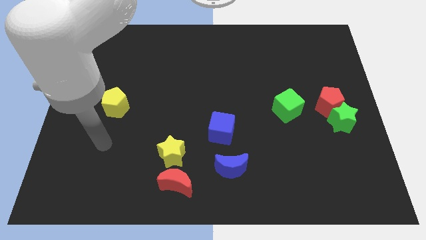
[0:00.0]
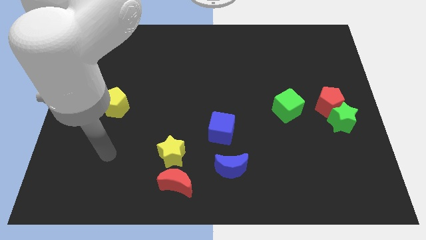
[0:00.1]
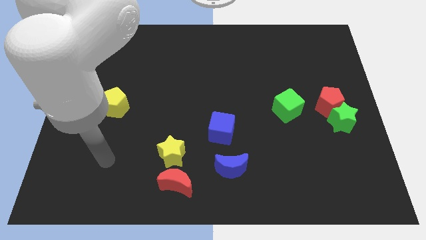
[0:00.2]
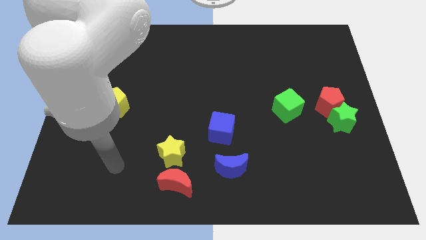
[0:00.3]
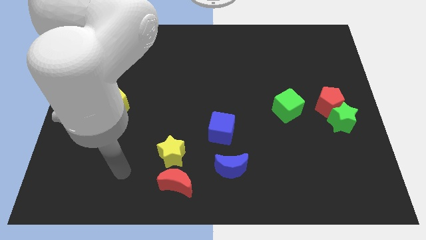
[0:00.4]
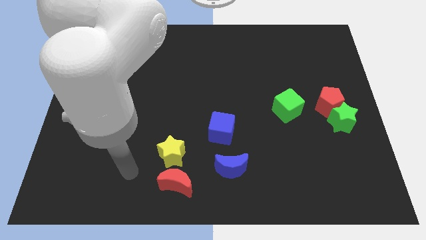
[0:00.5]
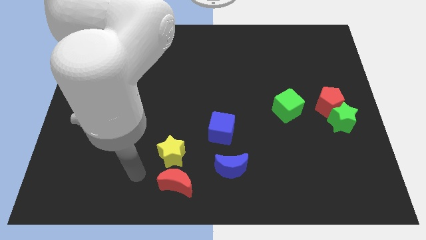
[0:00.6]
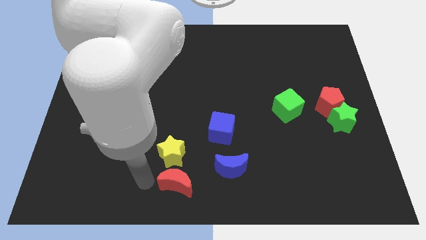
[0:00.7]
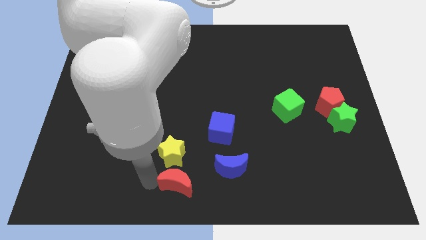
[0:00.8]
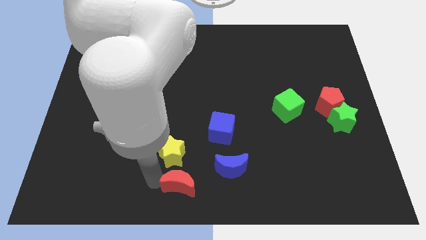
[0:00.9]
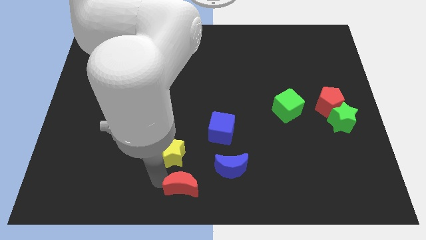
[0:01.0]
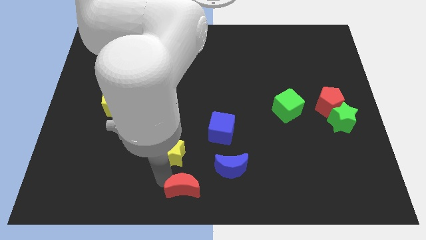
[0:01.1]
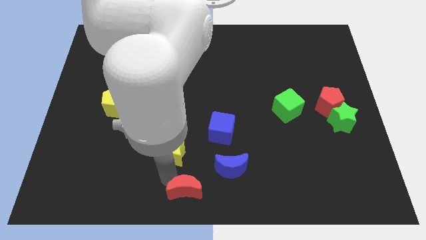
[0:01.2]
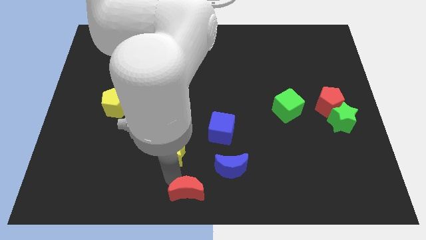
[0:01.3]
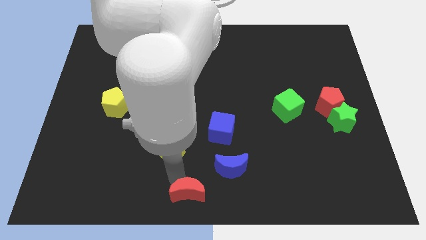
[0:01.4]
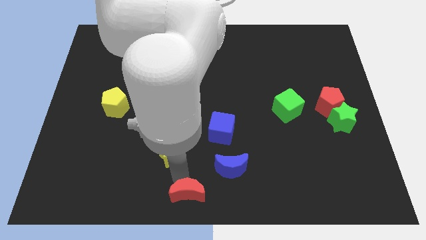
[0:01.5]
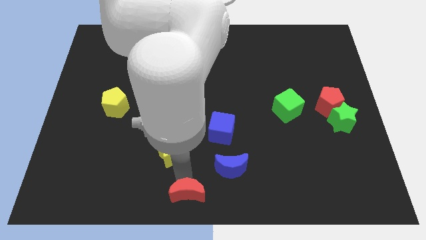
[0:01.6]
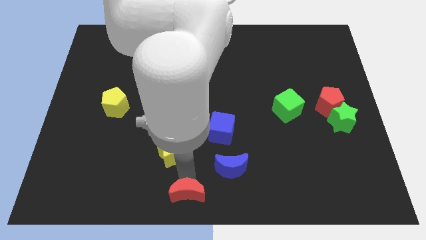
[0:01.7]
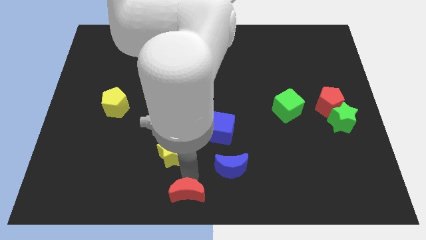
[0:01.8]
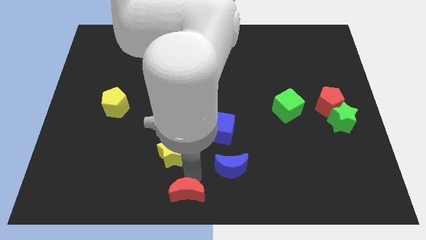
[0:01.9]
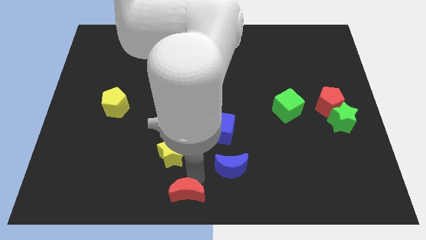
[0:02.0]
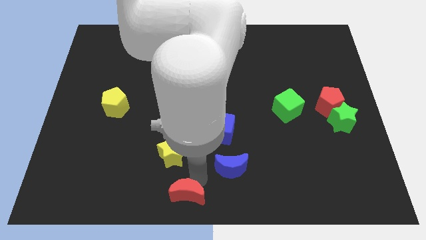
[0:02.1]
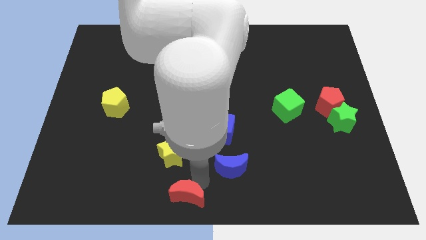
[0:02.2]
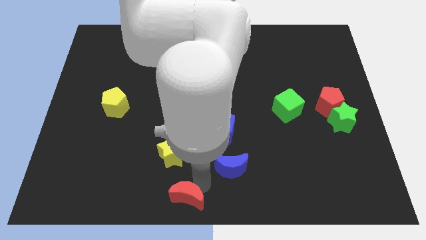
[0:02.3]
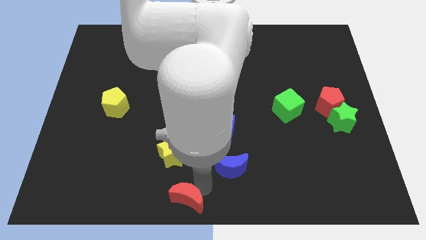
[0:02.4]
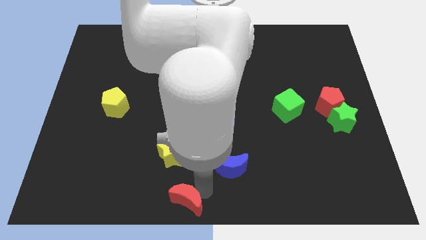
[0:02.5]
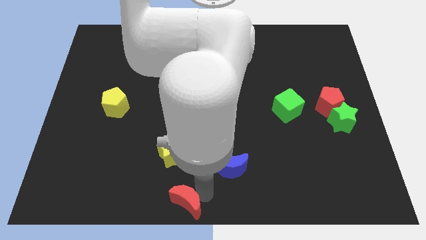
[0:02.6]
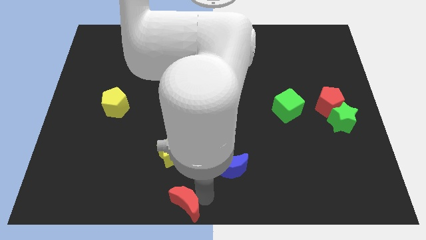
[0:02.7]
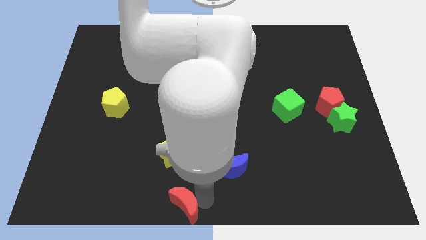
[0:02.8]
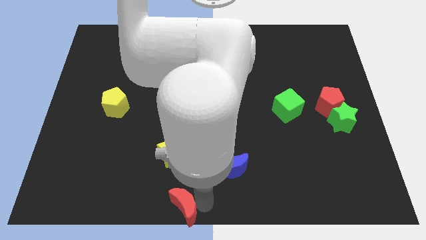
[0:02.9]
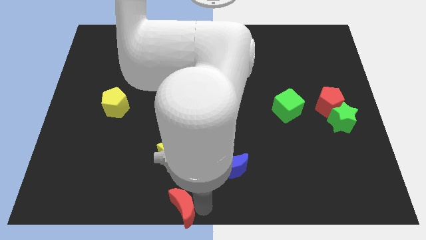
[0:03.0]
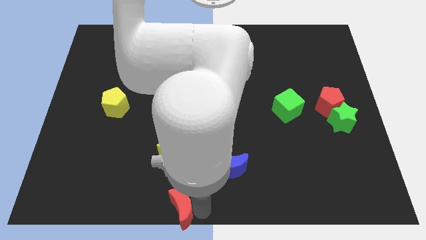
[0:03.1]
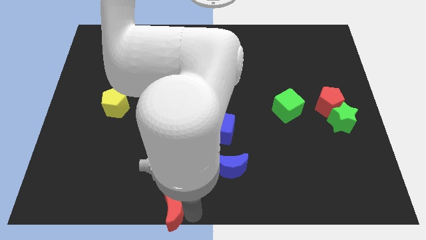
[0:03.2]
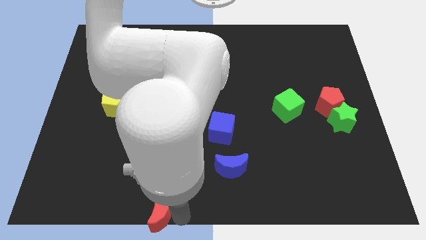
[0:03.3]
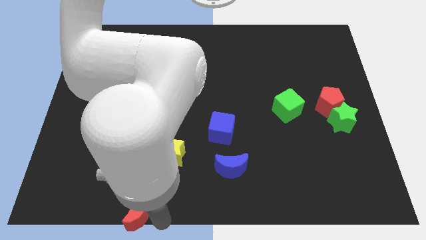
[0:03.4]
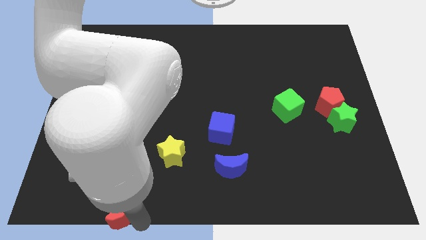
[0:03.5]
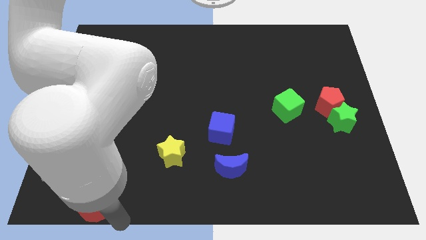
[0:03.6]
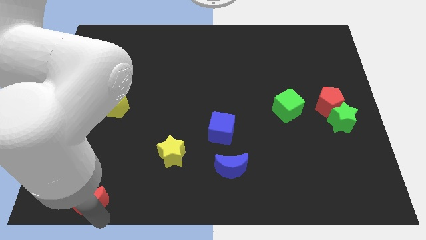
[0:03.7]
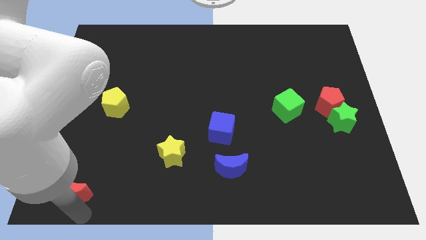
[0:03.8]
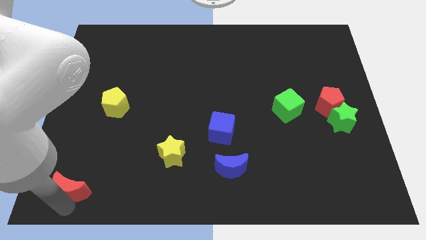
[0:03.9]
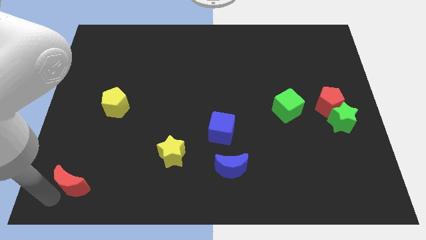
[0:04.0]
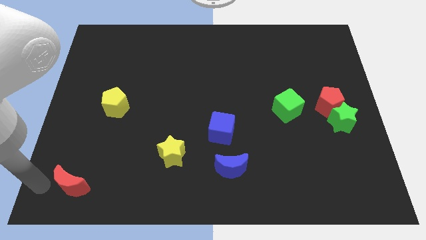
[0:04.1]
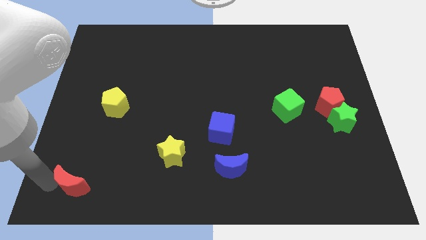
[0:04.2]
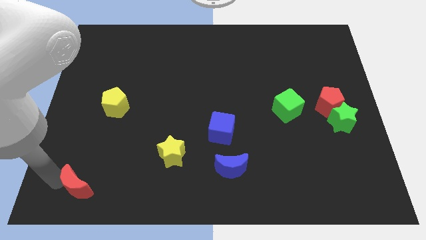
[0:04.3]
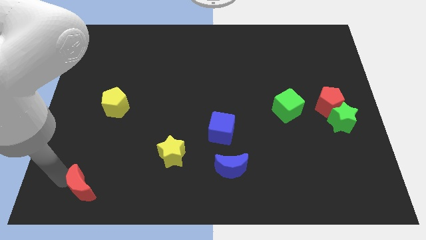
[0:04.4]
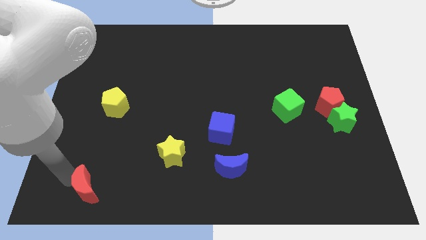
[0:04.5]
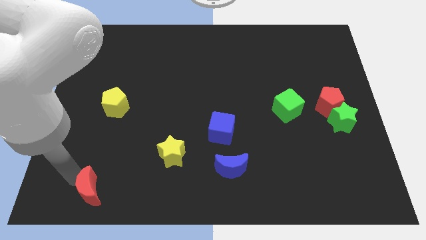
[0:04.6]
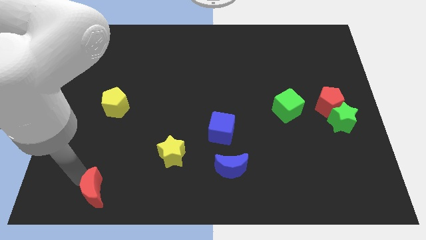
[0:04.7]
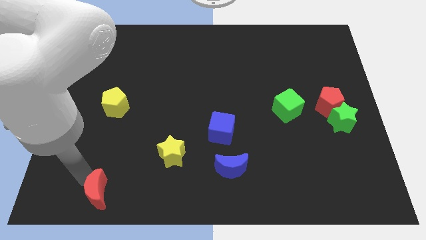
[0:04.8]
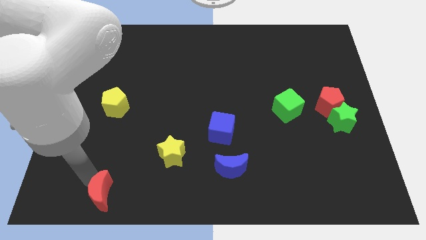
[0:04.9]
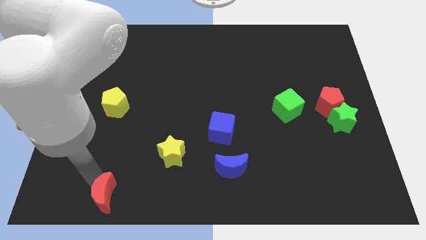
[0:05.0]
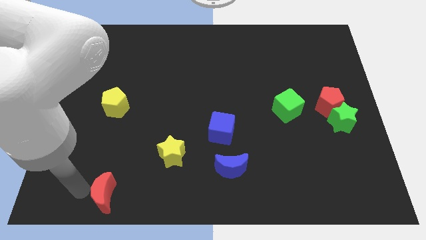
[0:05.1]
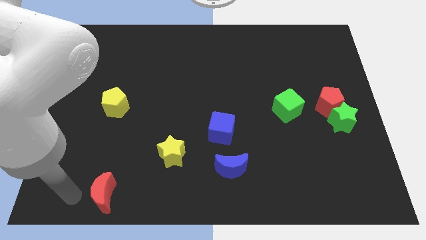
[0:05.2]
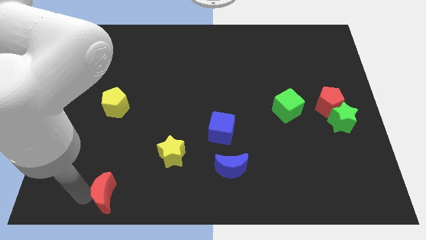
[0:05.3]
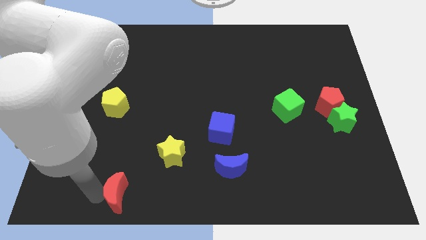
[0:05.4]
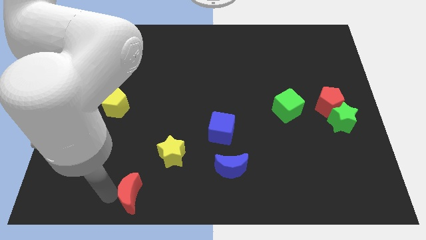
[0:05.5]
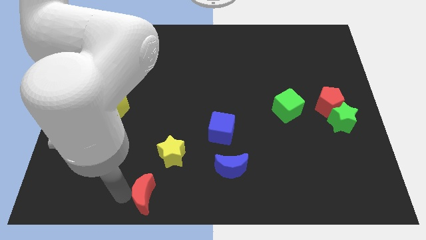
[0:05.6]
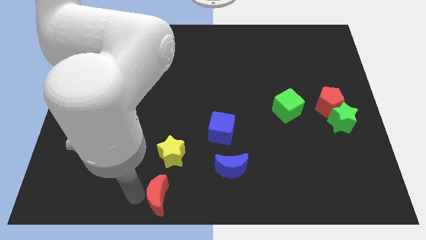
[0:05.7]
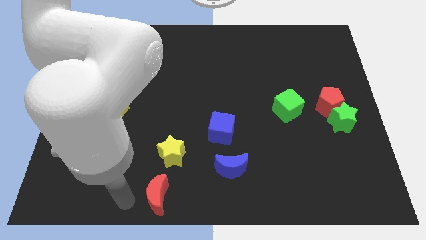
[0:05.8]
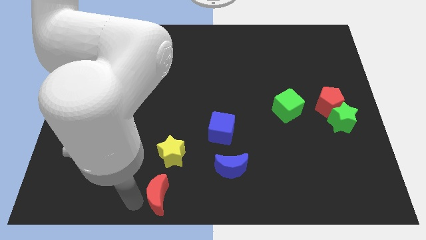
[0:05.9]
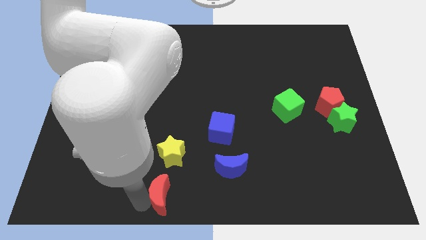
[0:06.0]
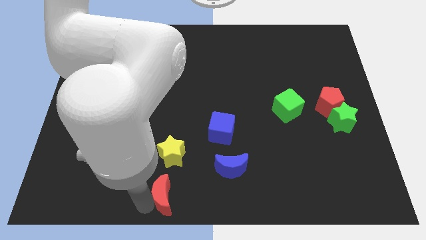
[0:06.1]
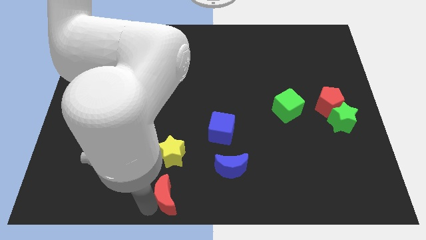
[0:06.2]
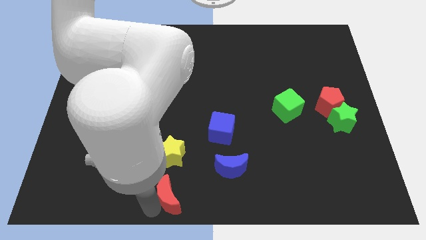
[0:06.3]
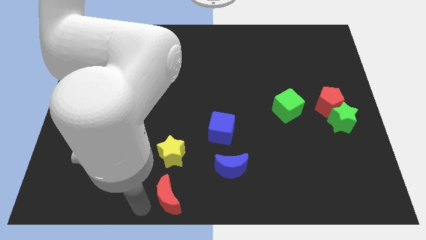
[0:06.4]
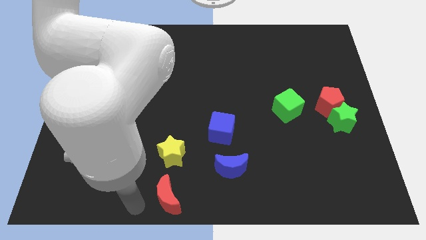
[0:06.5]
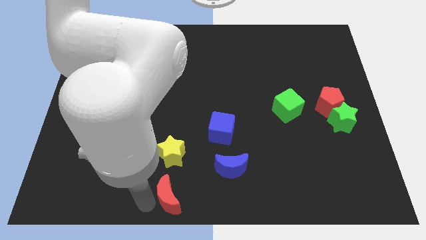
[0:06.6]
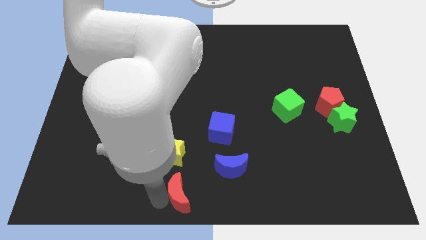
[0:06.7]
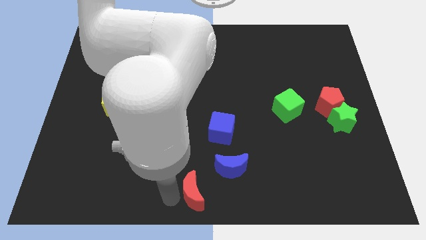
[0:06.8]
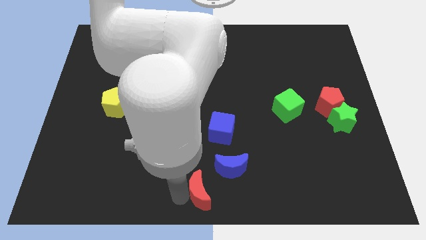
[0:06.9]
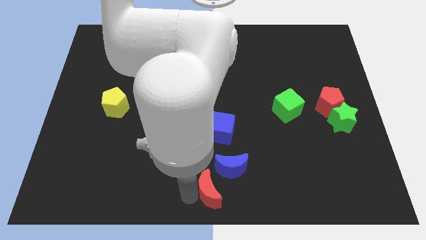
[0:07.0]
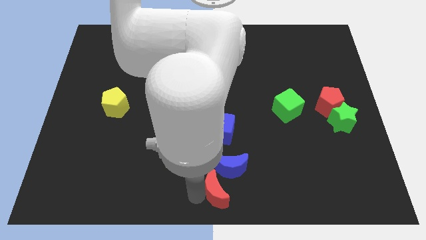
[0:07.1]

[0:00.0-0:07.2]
move the red moon a little right

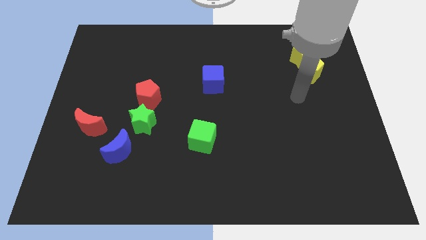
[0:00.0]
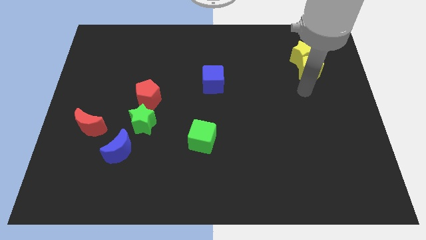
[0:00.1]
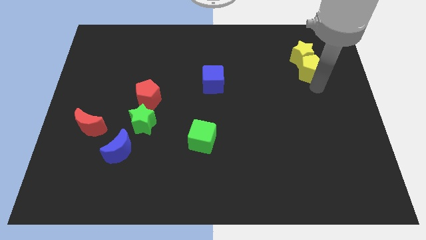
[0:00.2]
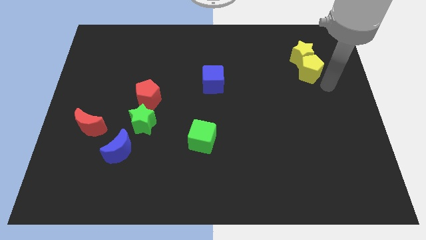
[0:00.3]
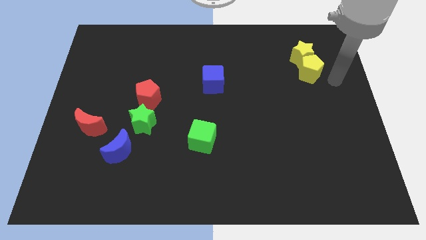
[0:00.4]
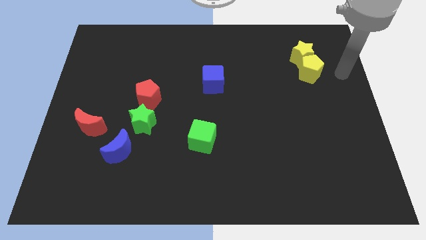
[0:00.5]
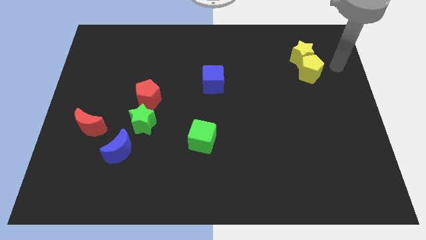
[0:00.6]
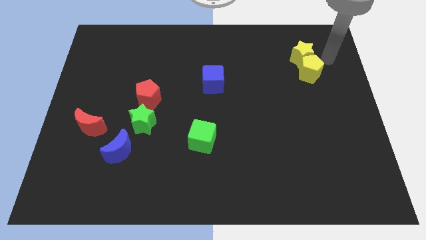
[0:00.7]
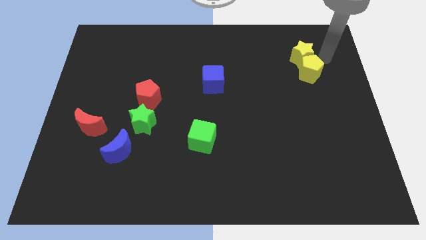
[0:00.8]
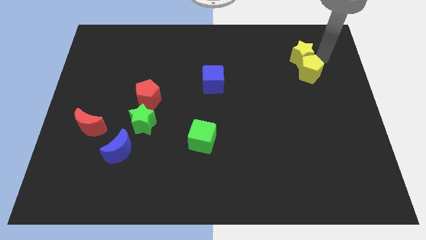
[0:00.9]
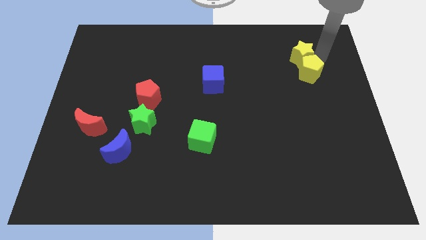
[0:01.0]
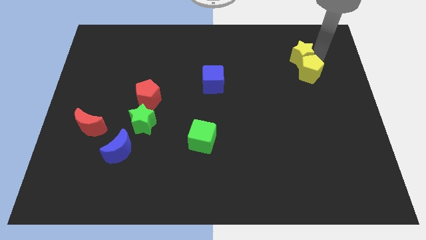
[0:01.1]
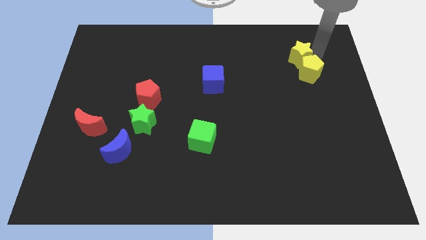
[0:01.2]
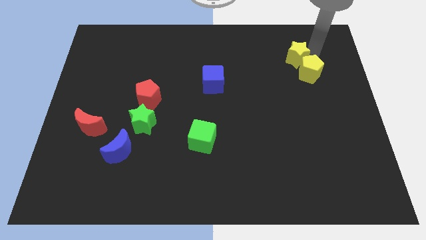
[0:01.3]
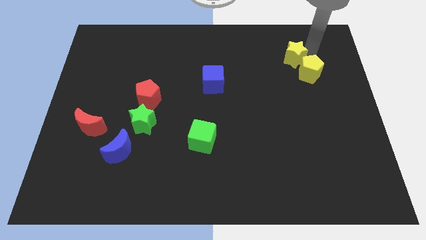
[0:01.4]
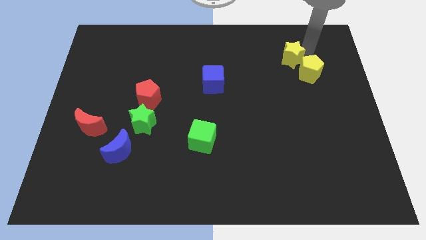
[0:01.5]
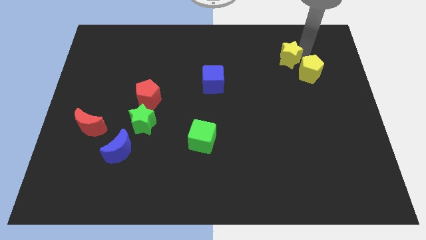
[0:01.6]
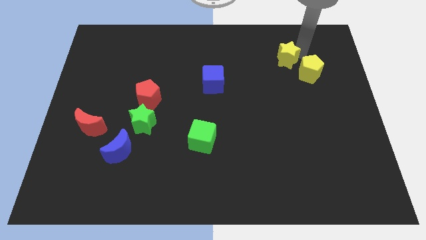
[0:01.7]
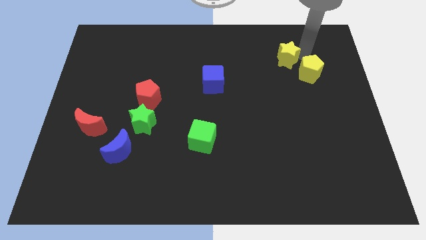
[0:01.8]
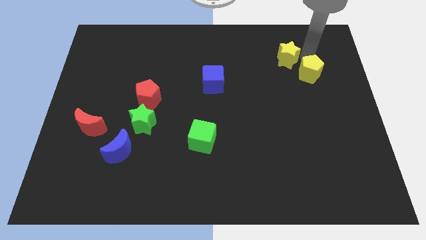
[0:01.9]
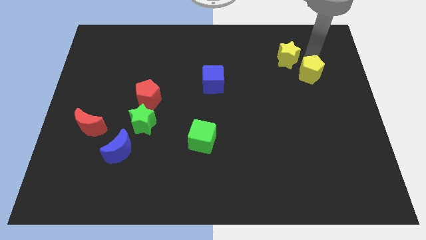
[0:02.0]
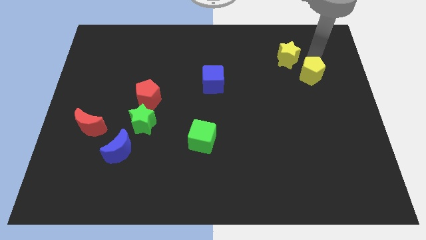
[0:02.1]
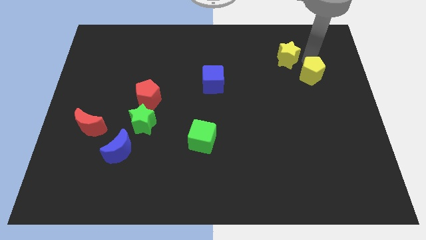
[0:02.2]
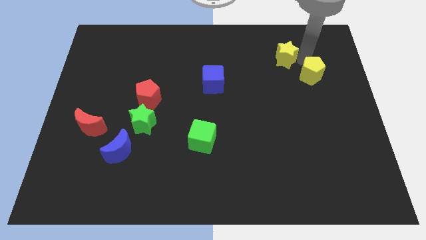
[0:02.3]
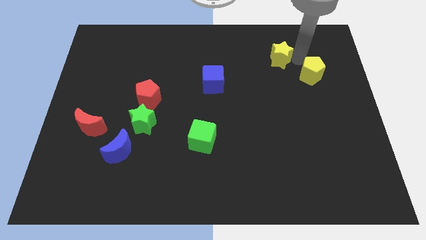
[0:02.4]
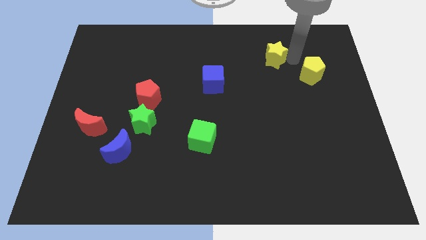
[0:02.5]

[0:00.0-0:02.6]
slightly slide the yellow star left
